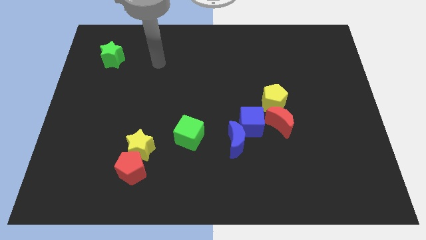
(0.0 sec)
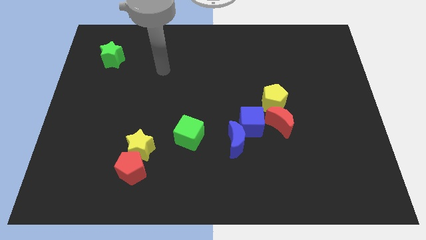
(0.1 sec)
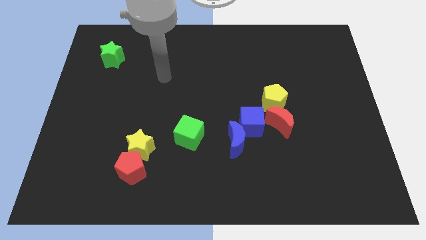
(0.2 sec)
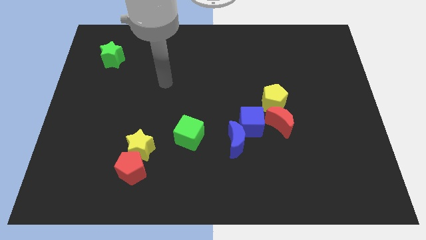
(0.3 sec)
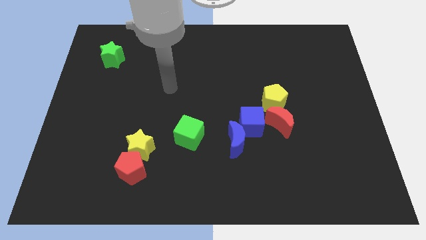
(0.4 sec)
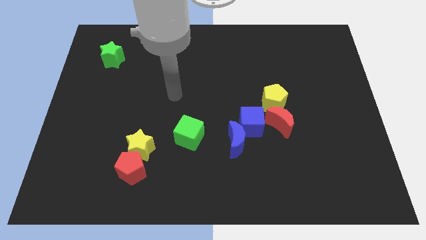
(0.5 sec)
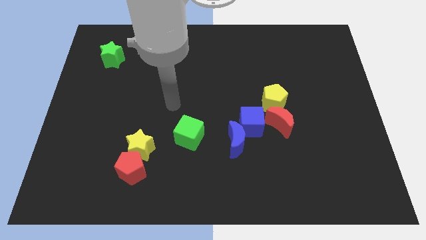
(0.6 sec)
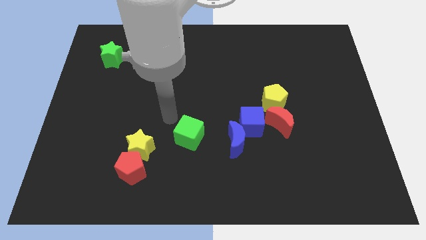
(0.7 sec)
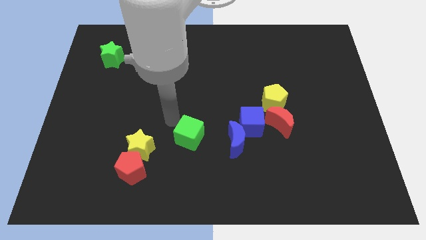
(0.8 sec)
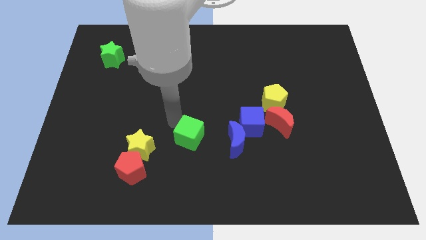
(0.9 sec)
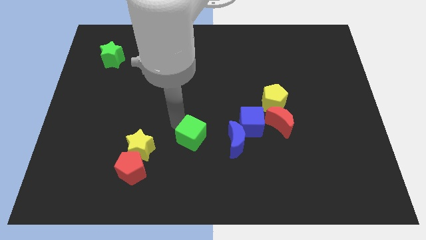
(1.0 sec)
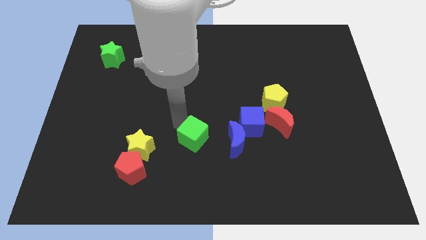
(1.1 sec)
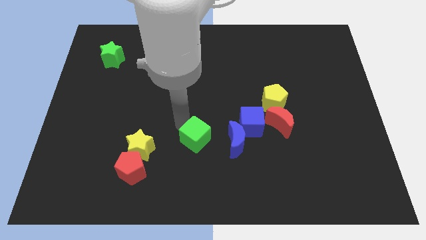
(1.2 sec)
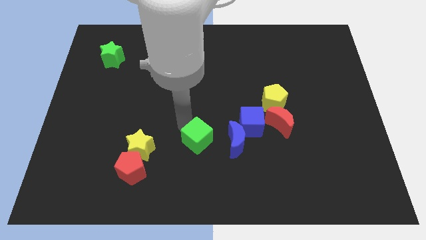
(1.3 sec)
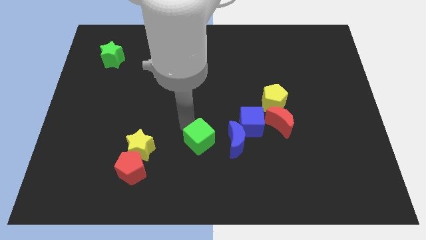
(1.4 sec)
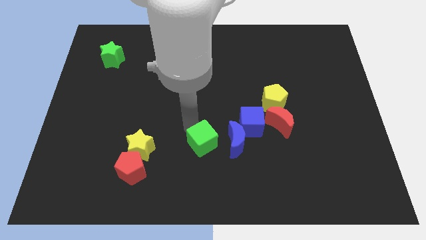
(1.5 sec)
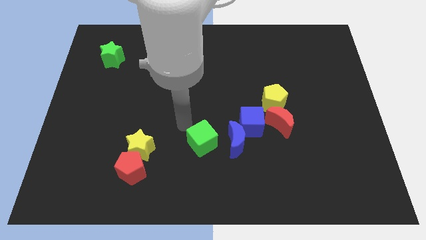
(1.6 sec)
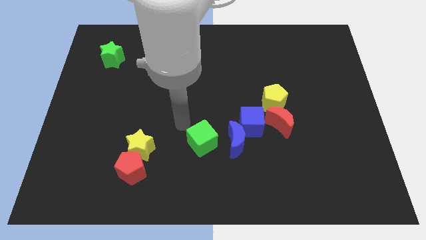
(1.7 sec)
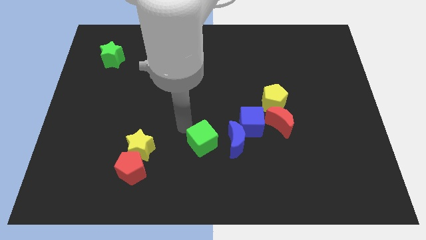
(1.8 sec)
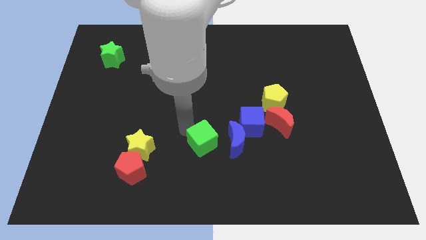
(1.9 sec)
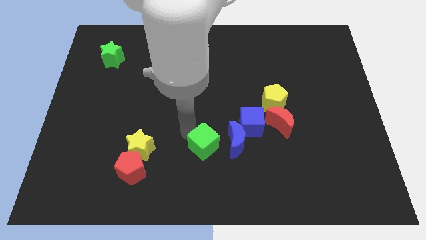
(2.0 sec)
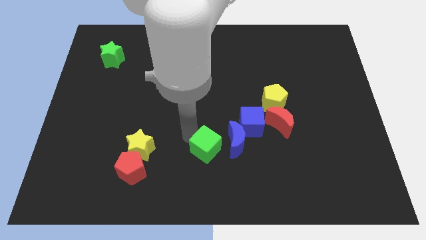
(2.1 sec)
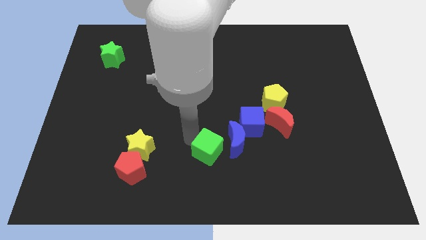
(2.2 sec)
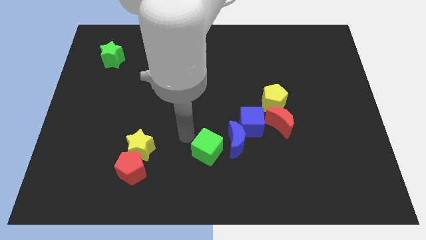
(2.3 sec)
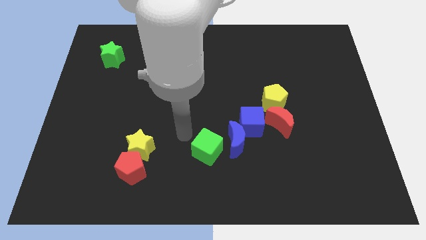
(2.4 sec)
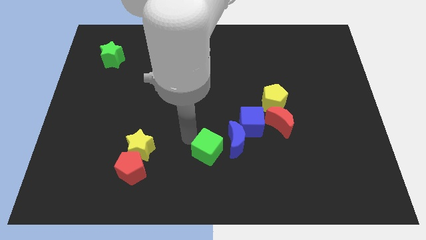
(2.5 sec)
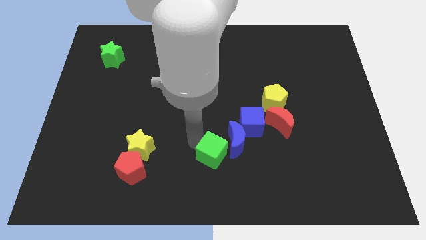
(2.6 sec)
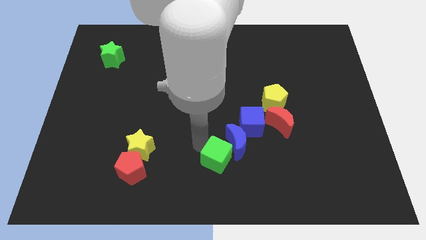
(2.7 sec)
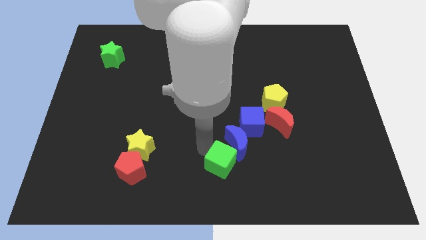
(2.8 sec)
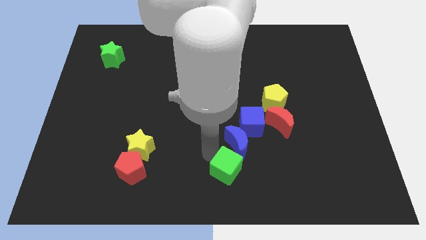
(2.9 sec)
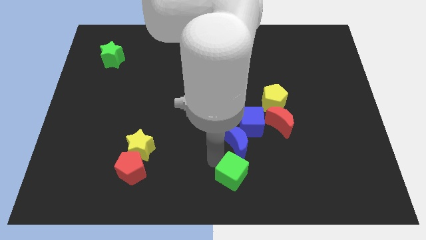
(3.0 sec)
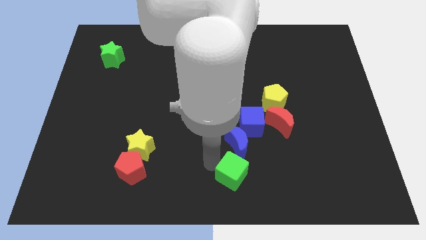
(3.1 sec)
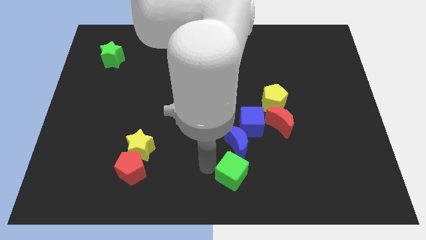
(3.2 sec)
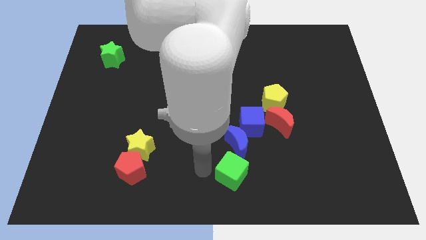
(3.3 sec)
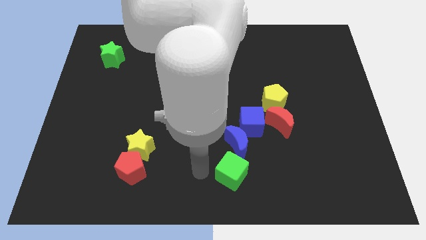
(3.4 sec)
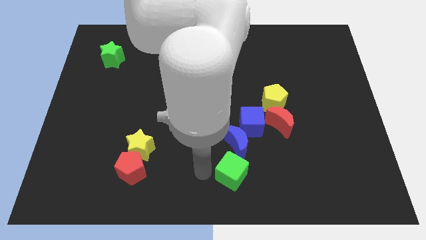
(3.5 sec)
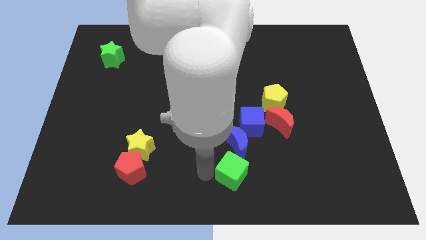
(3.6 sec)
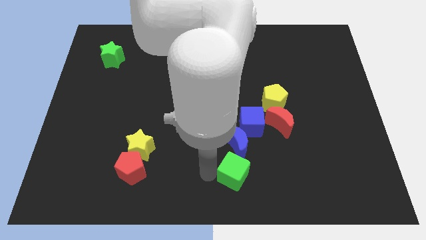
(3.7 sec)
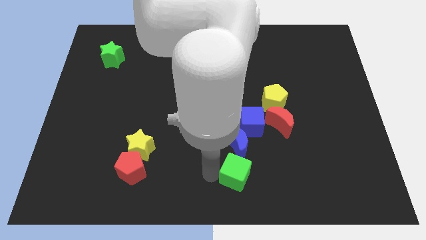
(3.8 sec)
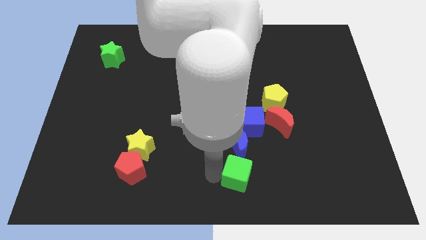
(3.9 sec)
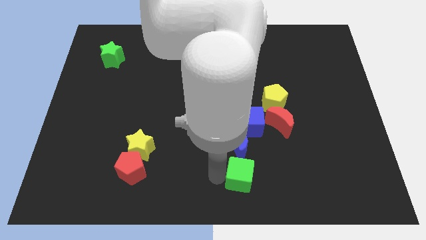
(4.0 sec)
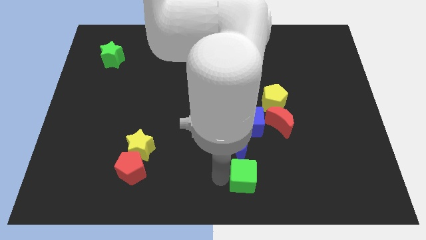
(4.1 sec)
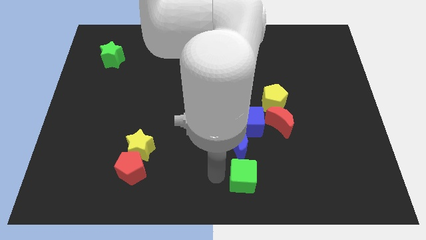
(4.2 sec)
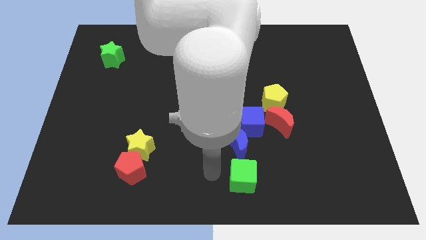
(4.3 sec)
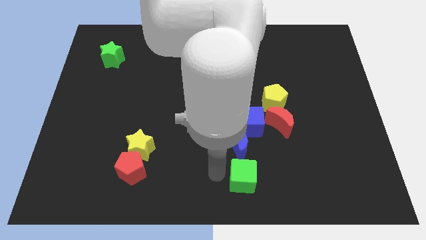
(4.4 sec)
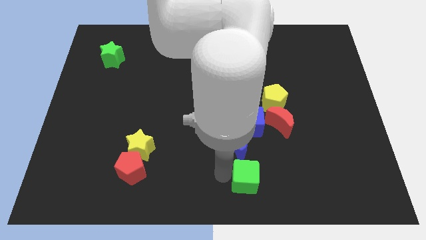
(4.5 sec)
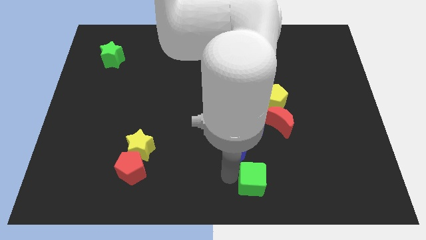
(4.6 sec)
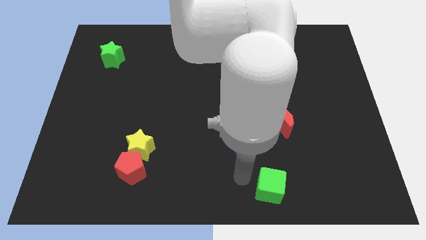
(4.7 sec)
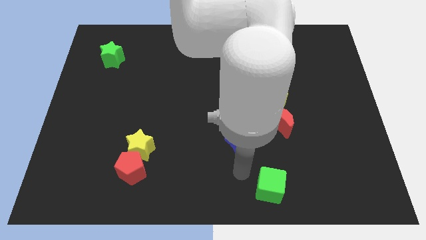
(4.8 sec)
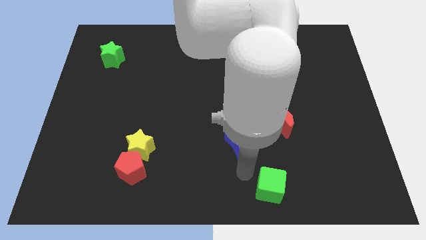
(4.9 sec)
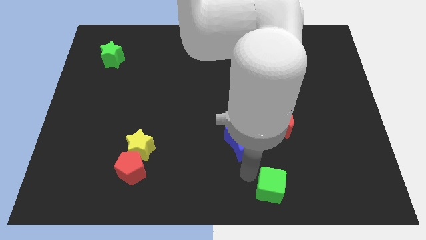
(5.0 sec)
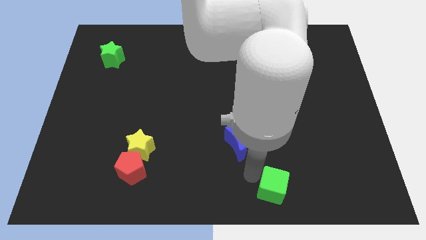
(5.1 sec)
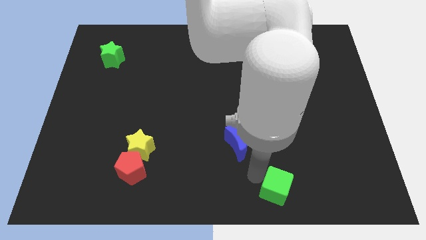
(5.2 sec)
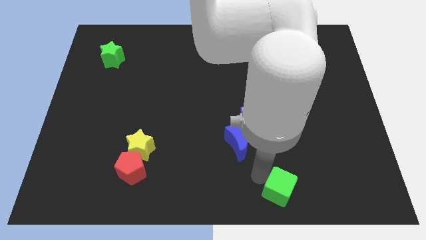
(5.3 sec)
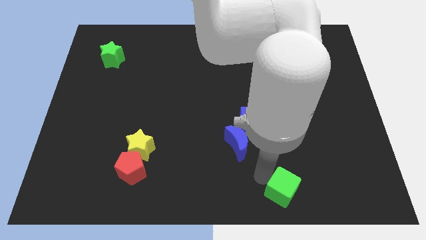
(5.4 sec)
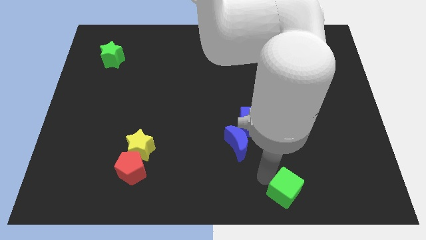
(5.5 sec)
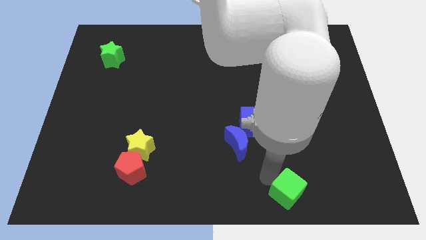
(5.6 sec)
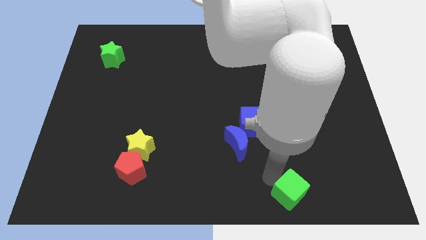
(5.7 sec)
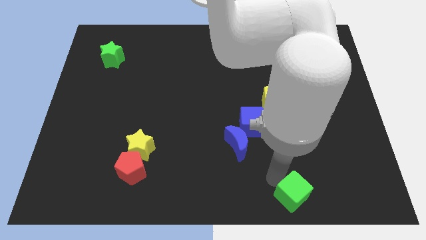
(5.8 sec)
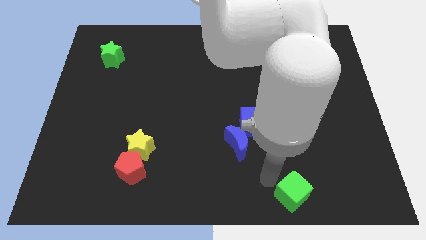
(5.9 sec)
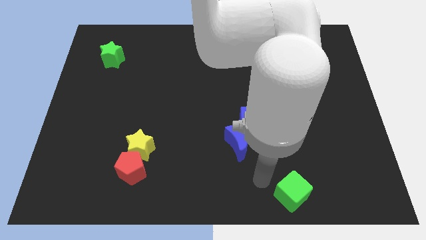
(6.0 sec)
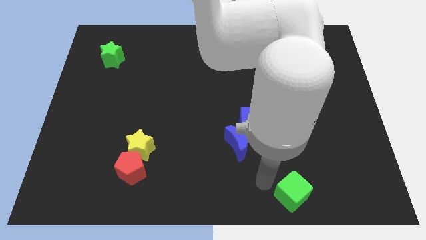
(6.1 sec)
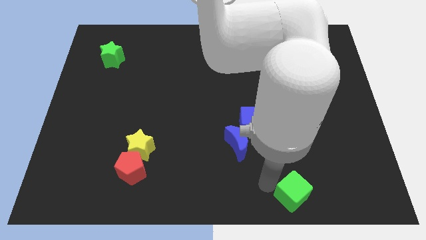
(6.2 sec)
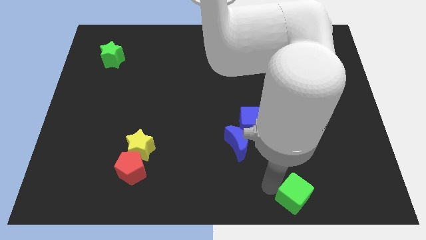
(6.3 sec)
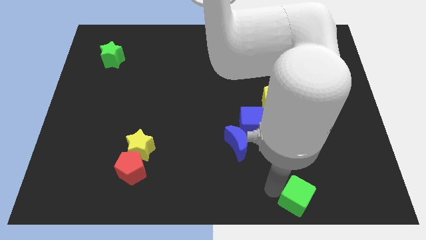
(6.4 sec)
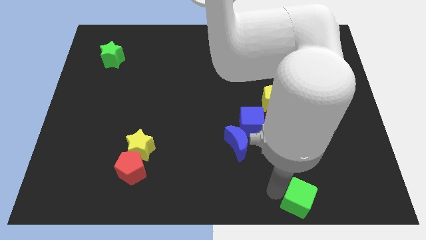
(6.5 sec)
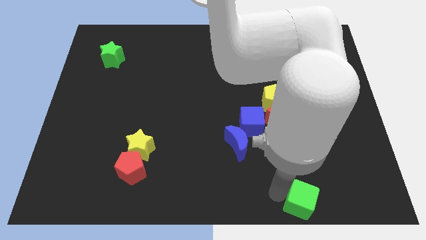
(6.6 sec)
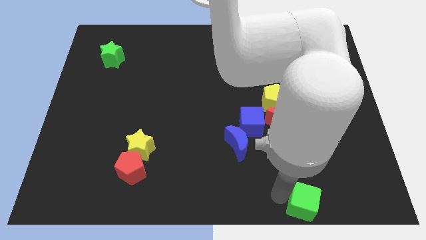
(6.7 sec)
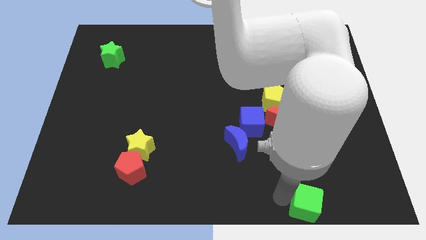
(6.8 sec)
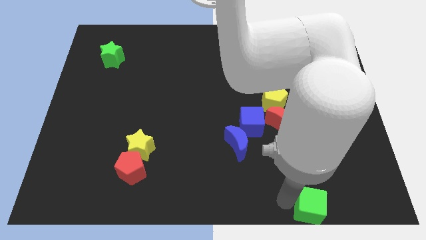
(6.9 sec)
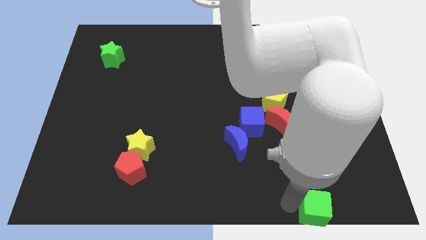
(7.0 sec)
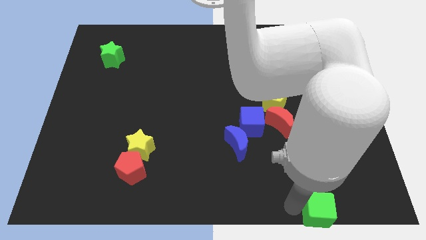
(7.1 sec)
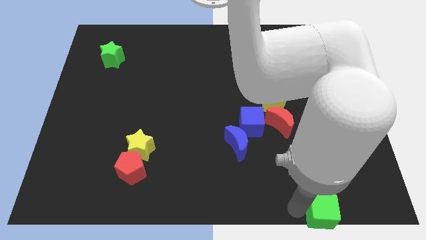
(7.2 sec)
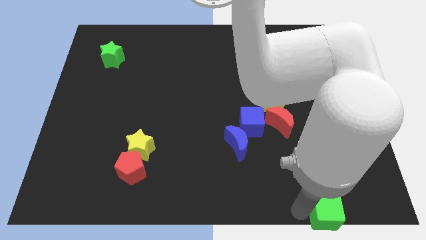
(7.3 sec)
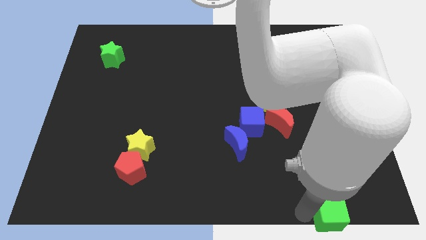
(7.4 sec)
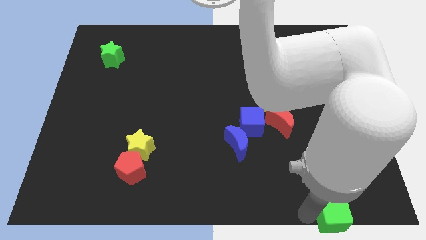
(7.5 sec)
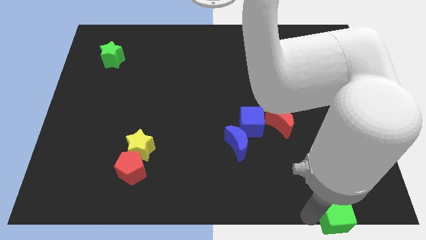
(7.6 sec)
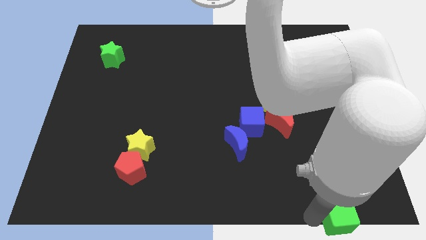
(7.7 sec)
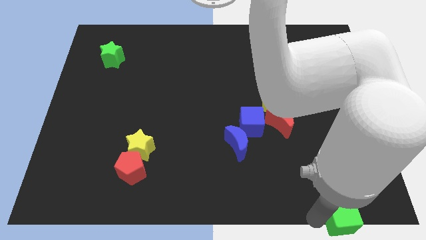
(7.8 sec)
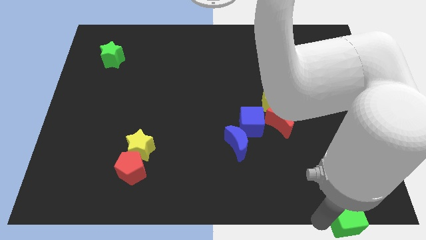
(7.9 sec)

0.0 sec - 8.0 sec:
move the green cube to the bottom right
